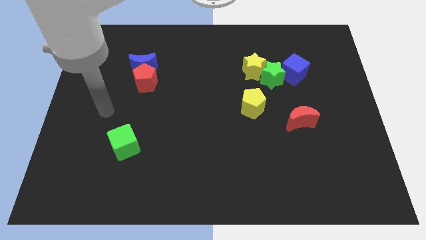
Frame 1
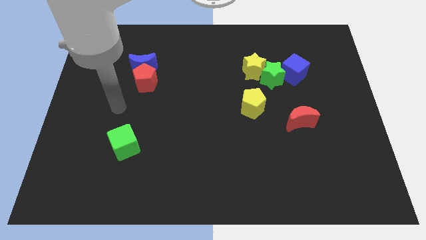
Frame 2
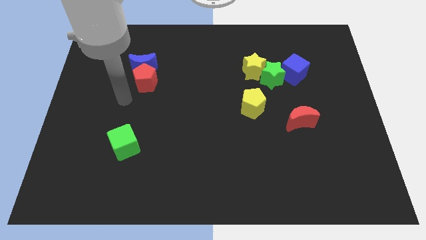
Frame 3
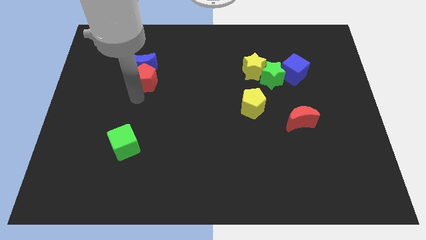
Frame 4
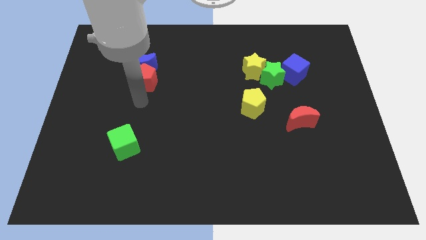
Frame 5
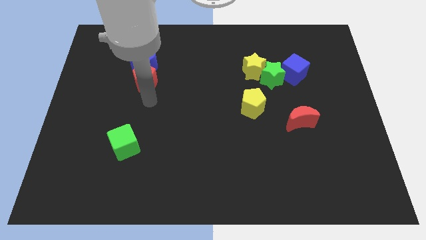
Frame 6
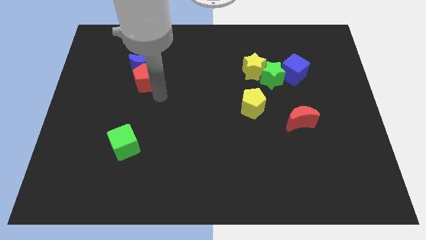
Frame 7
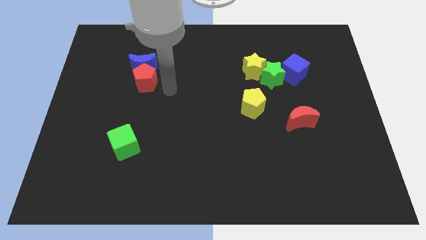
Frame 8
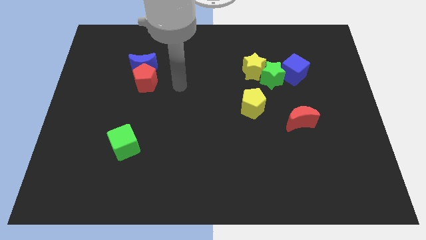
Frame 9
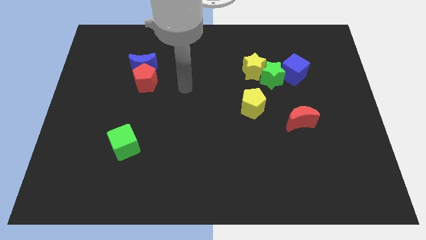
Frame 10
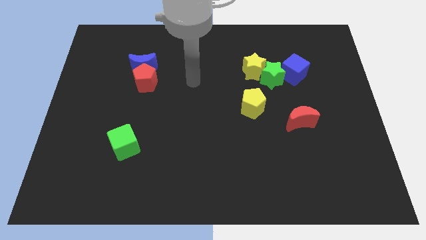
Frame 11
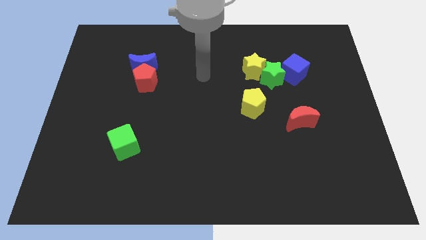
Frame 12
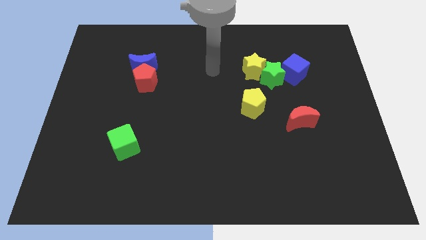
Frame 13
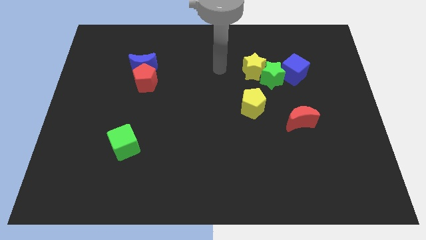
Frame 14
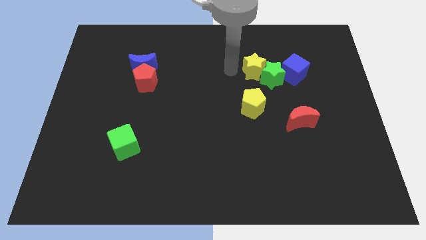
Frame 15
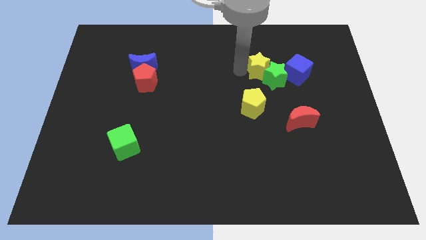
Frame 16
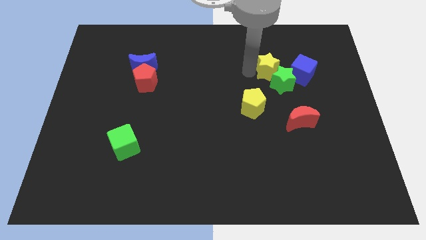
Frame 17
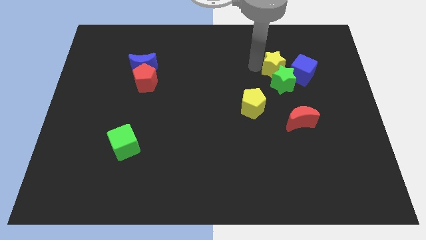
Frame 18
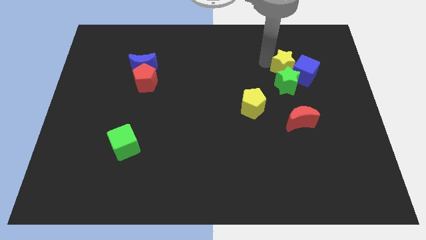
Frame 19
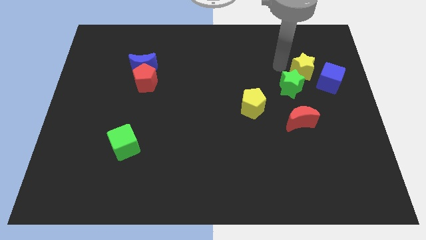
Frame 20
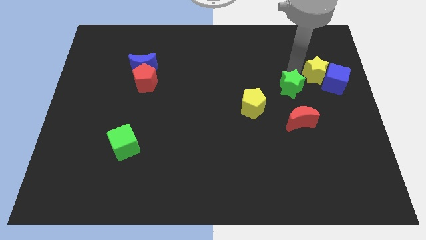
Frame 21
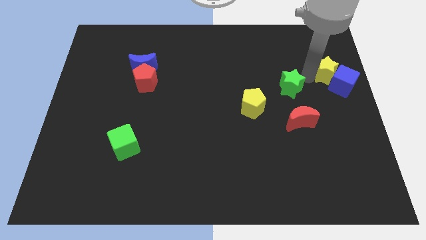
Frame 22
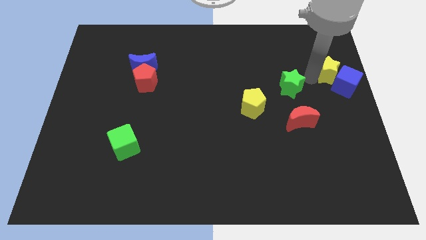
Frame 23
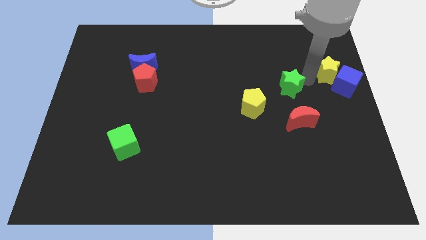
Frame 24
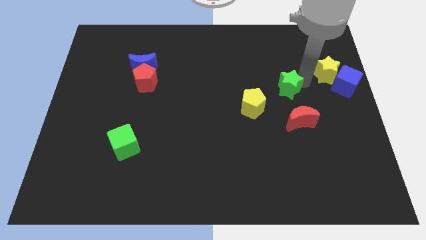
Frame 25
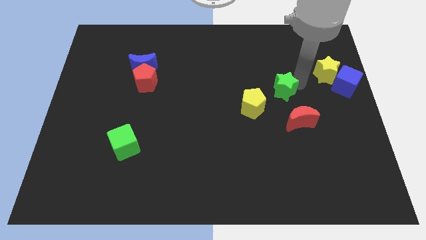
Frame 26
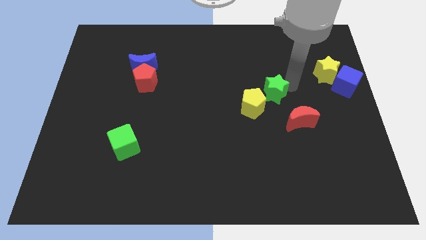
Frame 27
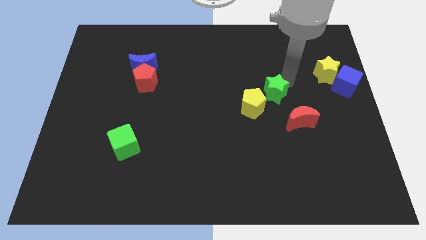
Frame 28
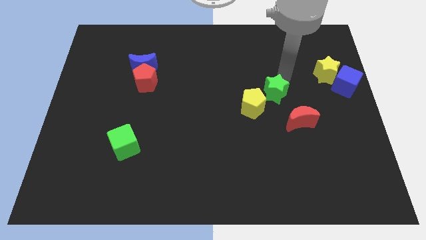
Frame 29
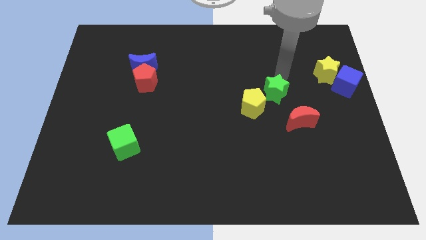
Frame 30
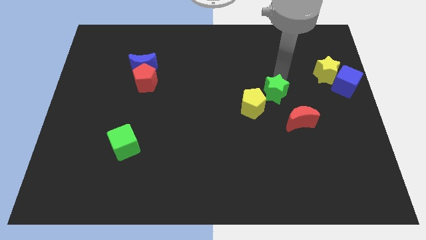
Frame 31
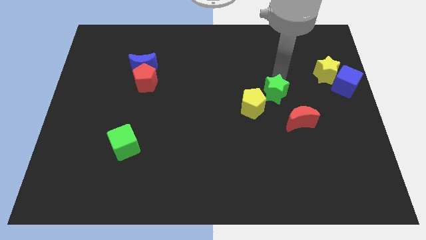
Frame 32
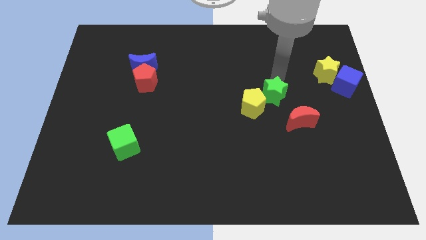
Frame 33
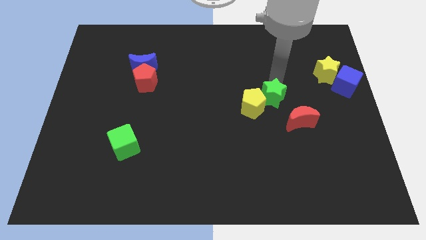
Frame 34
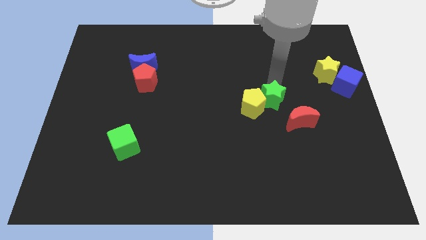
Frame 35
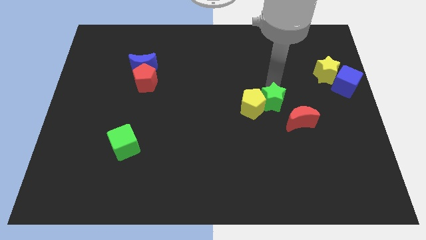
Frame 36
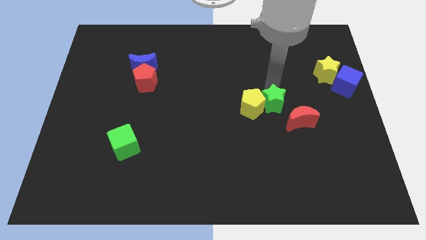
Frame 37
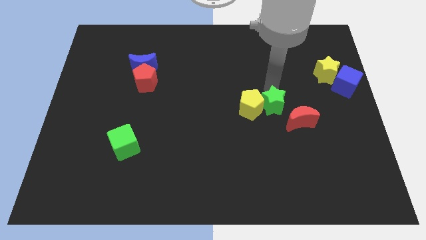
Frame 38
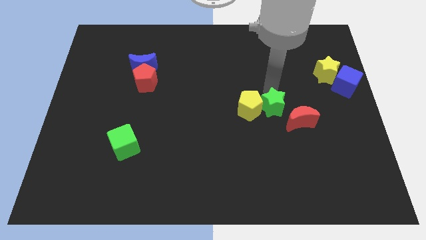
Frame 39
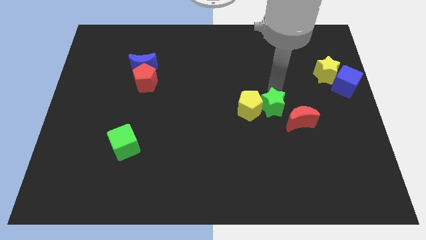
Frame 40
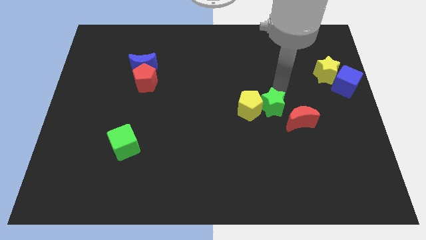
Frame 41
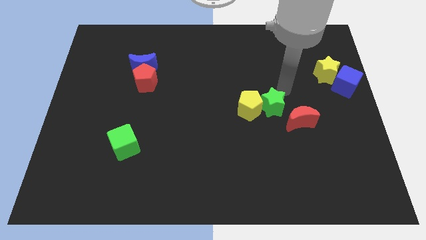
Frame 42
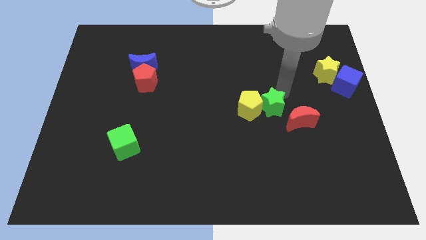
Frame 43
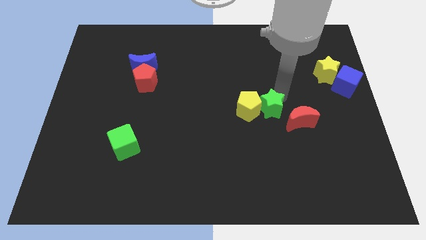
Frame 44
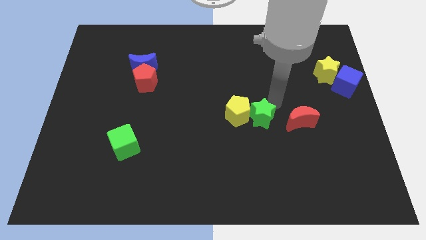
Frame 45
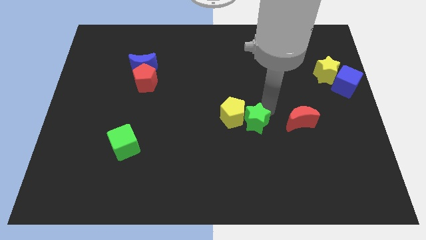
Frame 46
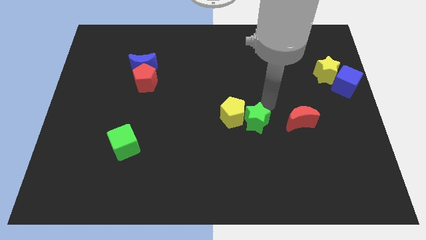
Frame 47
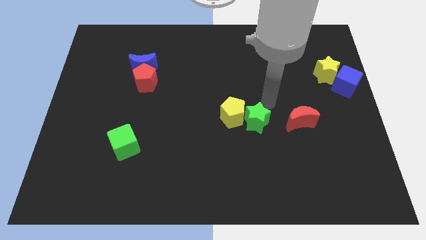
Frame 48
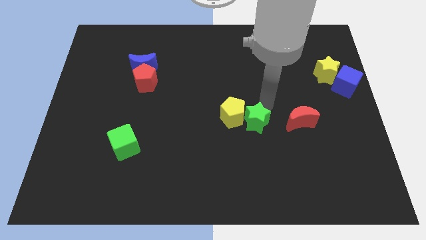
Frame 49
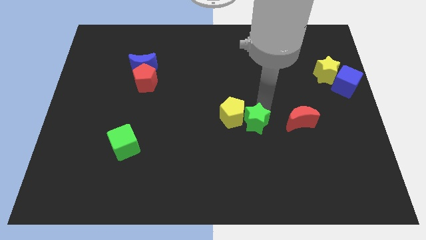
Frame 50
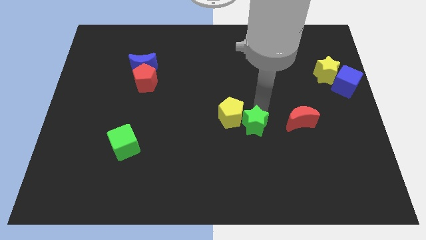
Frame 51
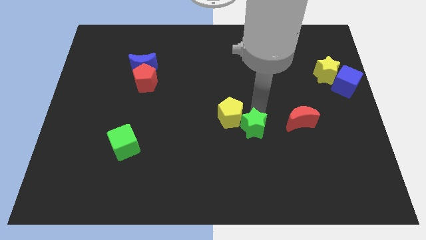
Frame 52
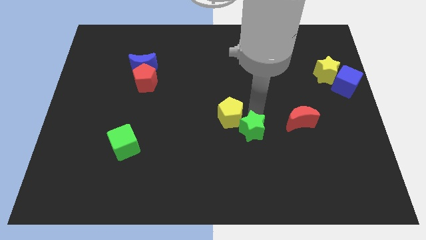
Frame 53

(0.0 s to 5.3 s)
push the green star below the yellow pentagon

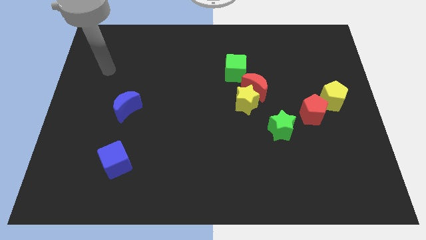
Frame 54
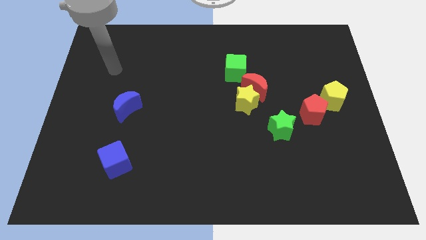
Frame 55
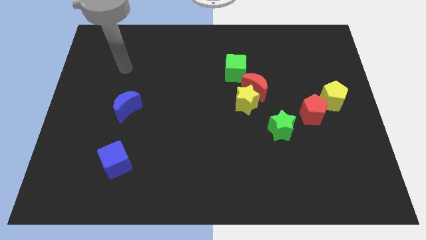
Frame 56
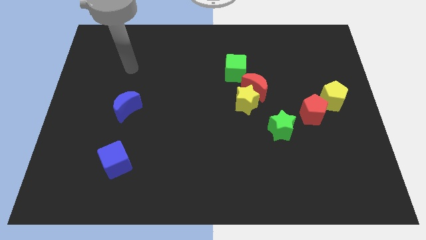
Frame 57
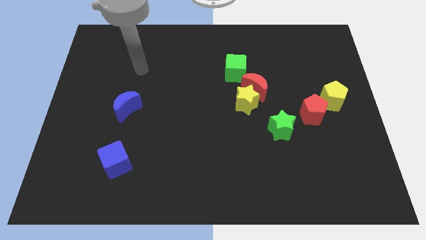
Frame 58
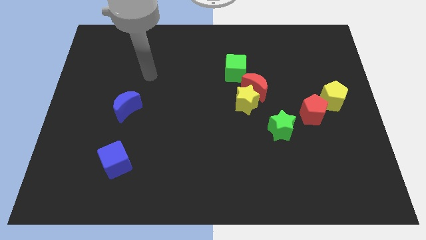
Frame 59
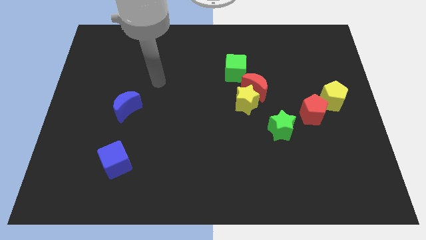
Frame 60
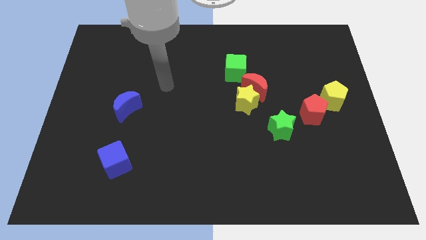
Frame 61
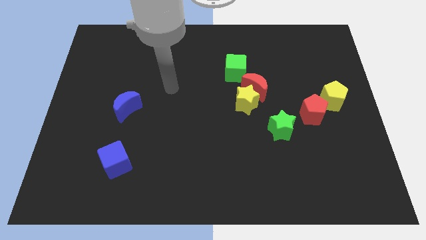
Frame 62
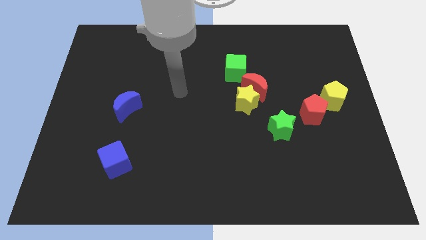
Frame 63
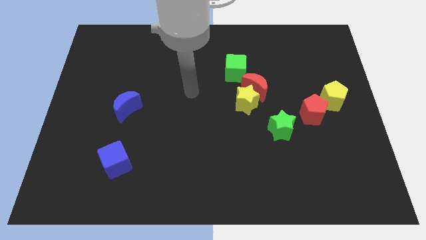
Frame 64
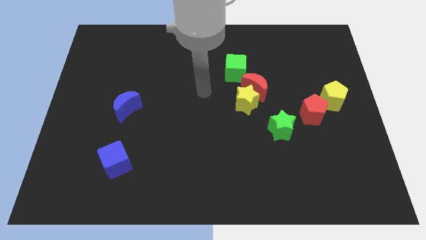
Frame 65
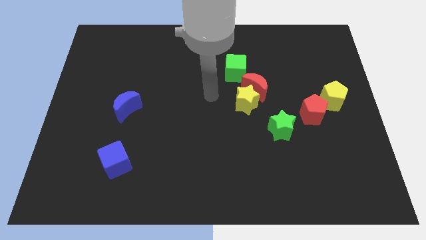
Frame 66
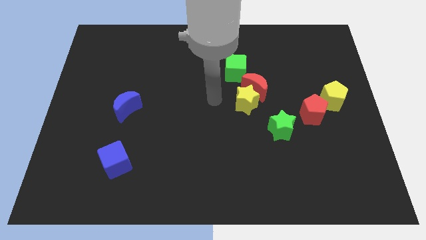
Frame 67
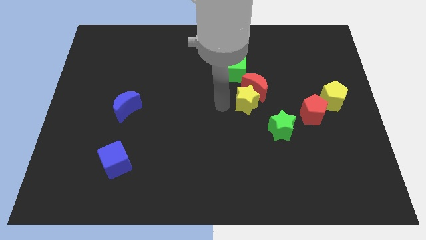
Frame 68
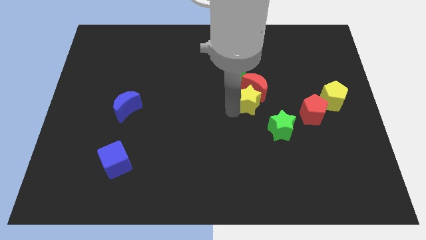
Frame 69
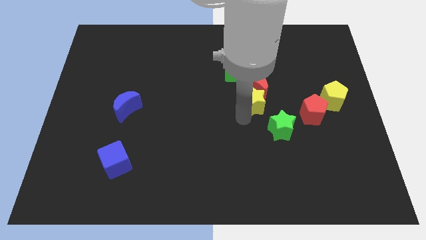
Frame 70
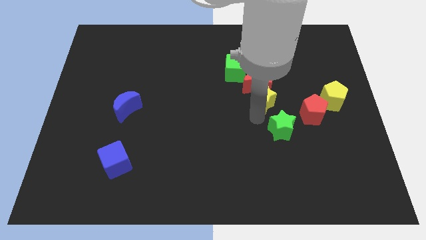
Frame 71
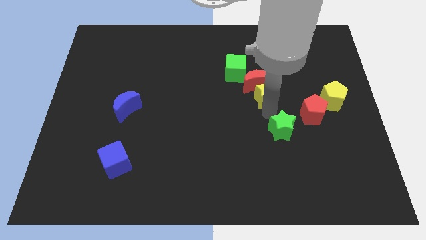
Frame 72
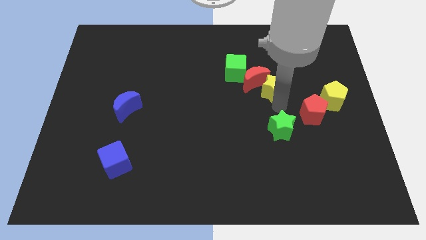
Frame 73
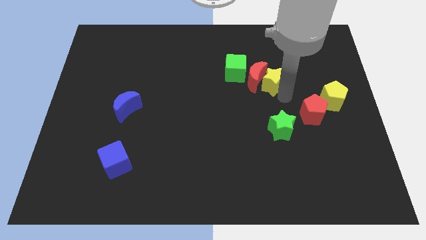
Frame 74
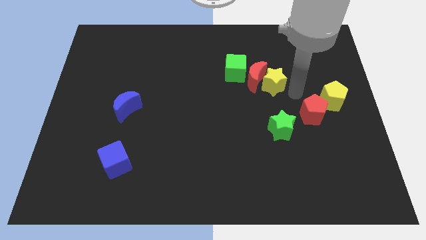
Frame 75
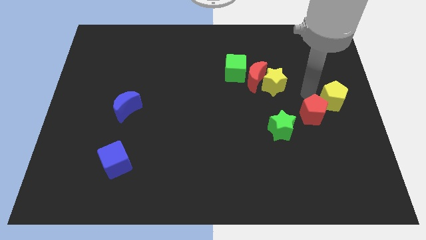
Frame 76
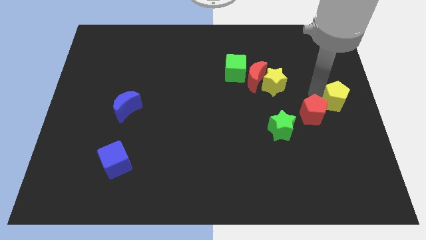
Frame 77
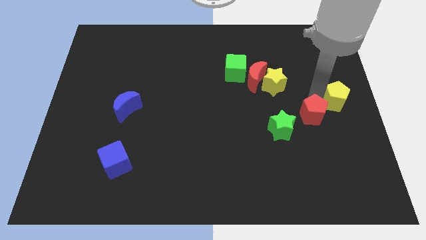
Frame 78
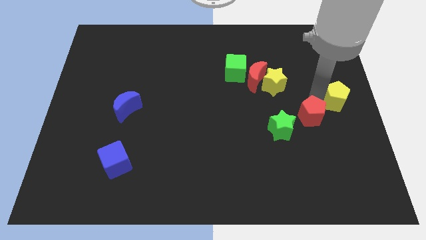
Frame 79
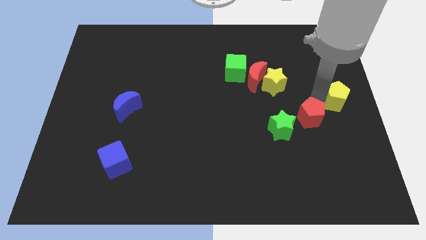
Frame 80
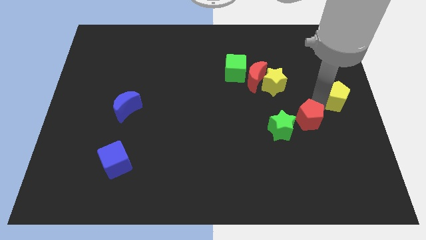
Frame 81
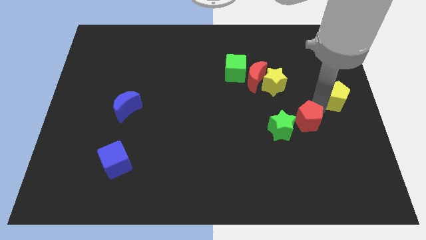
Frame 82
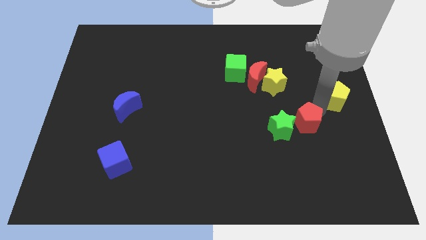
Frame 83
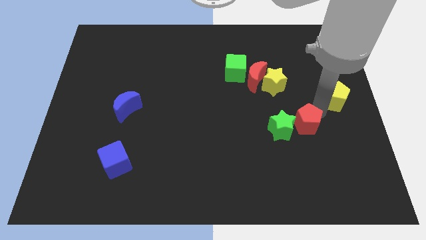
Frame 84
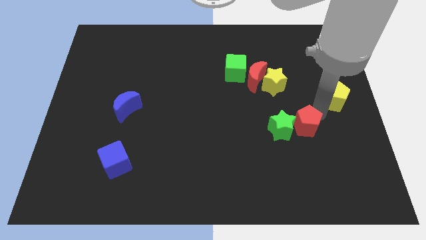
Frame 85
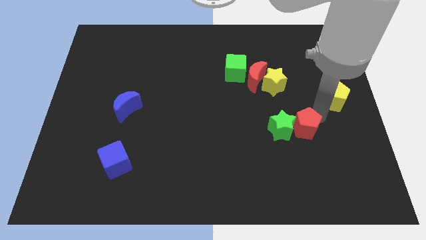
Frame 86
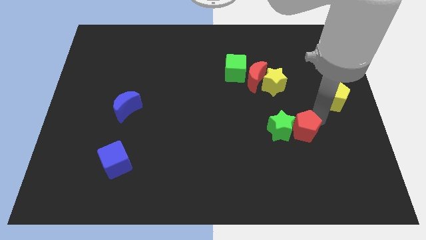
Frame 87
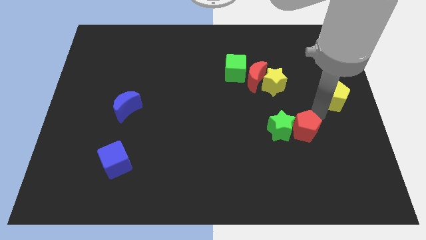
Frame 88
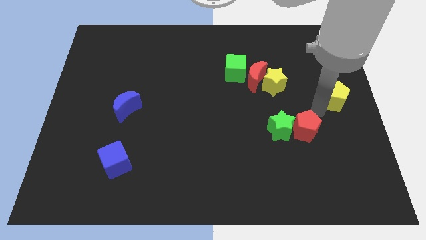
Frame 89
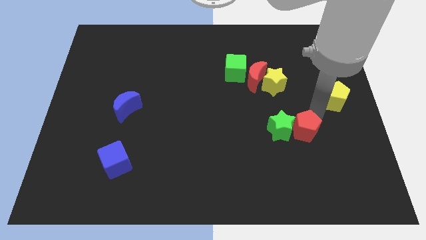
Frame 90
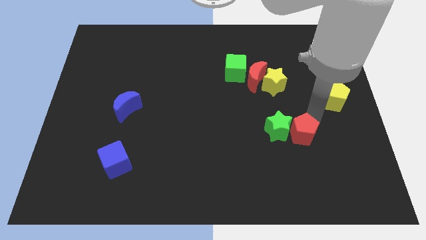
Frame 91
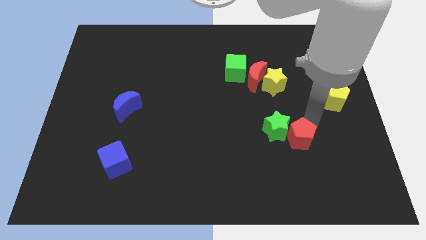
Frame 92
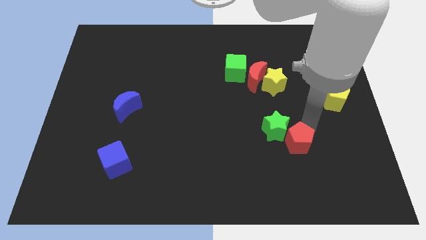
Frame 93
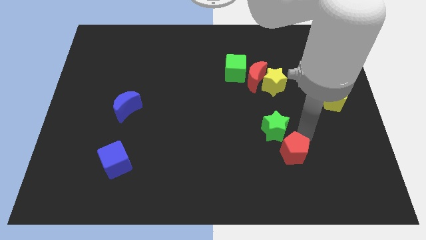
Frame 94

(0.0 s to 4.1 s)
move the red pentagon to the bottom of the green star
